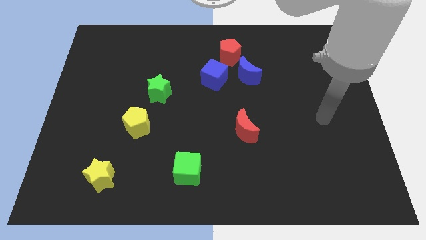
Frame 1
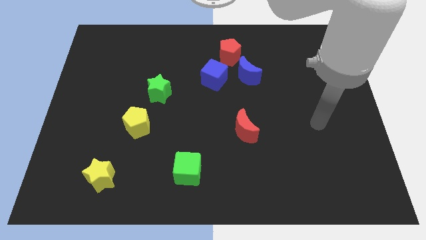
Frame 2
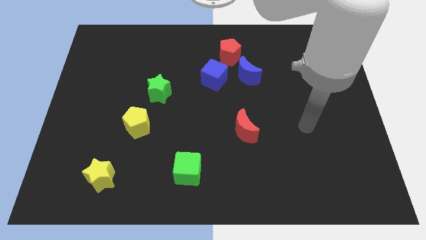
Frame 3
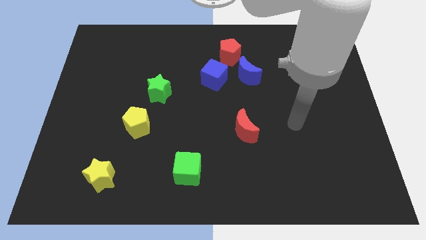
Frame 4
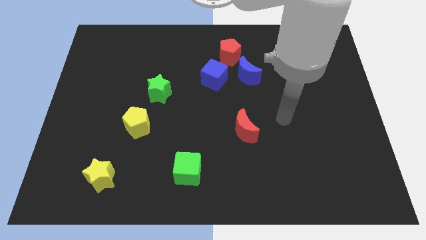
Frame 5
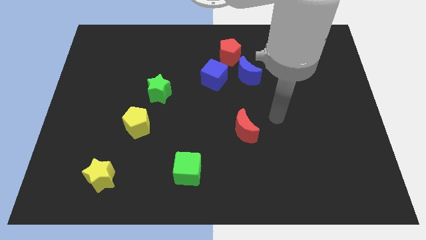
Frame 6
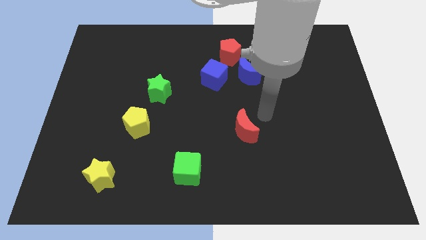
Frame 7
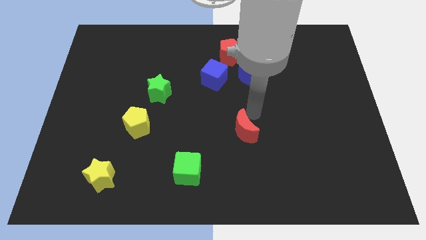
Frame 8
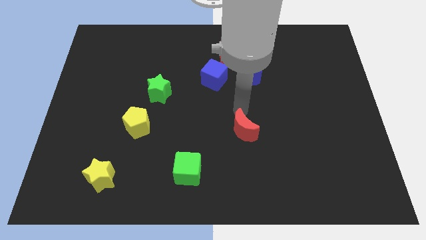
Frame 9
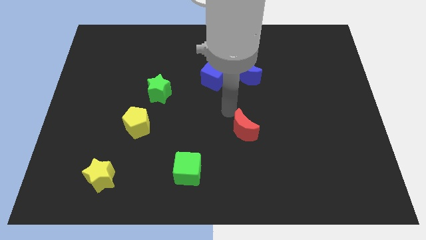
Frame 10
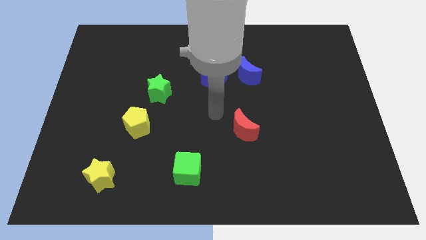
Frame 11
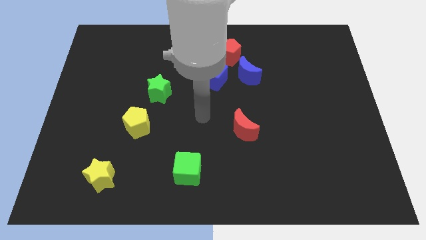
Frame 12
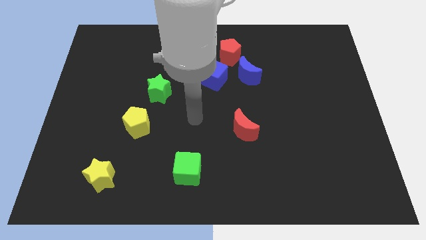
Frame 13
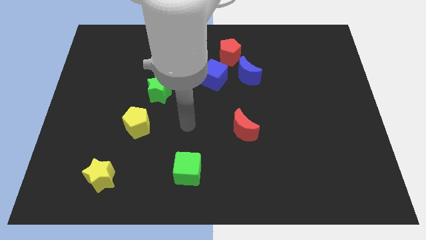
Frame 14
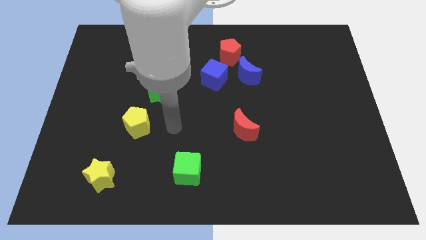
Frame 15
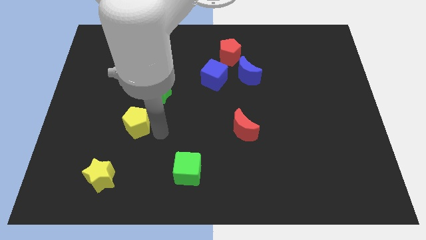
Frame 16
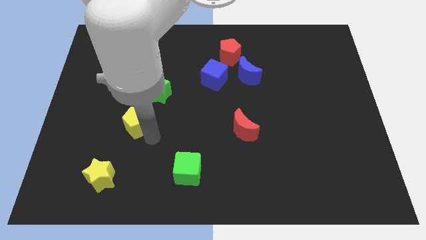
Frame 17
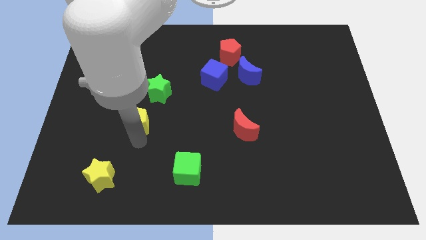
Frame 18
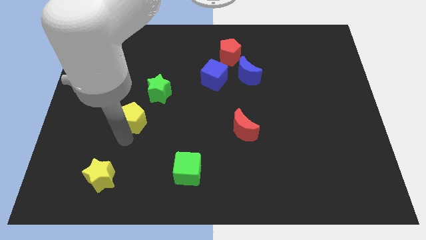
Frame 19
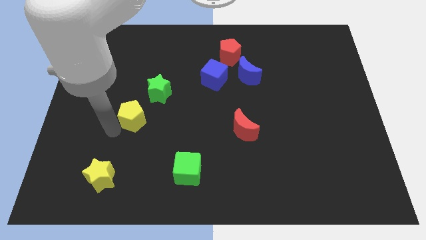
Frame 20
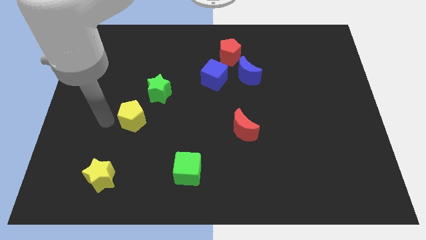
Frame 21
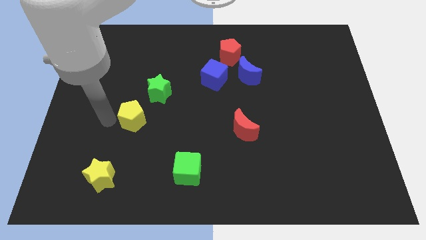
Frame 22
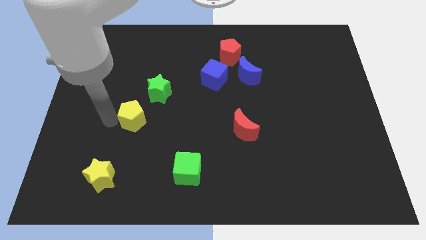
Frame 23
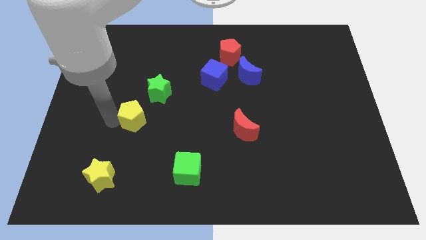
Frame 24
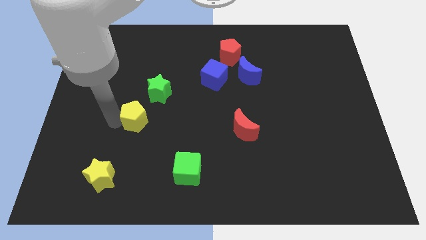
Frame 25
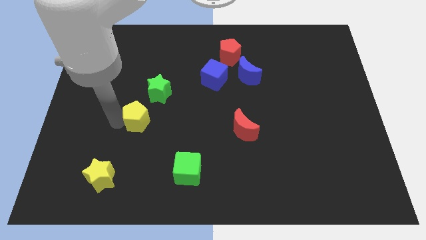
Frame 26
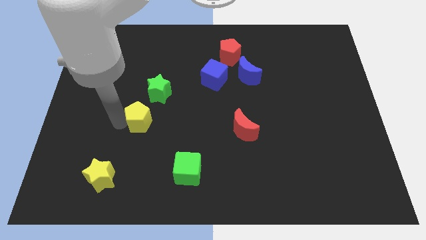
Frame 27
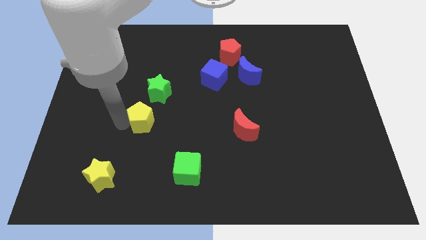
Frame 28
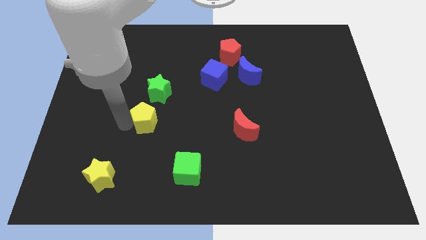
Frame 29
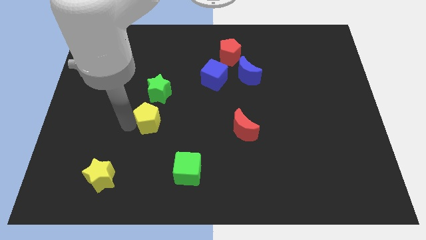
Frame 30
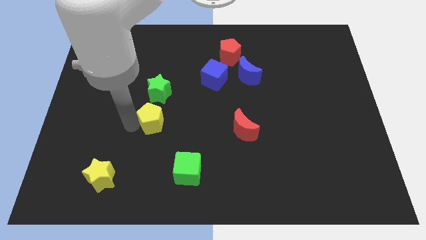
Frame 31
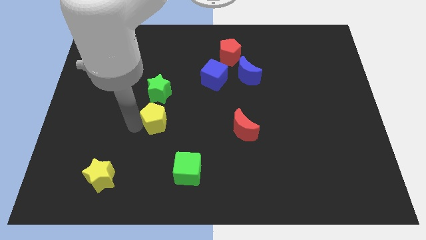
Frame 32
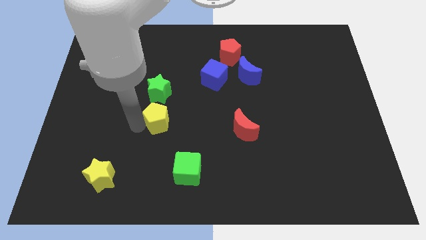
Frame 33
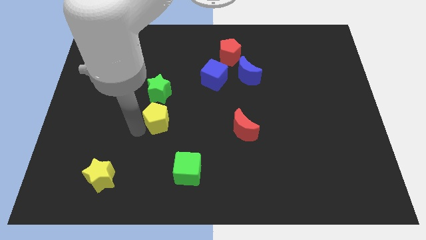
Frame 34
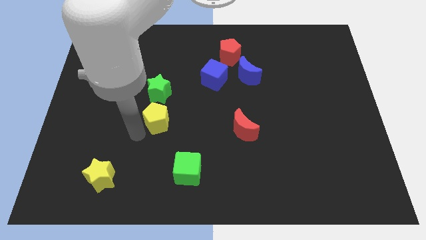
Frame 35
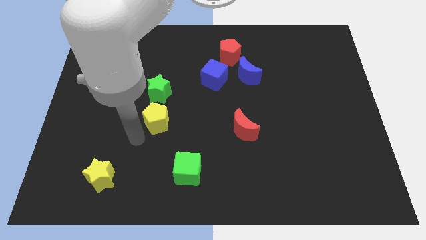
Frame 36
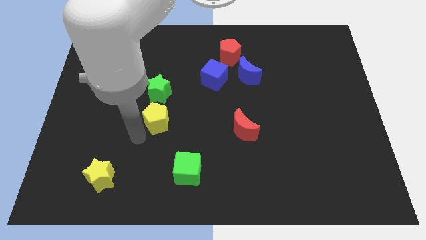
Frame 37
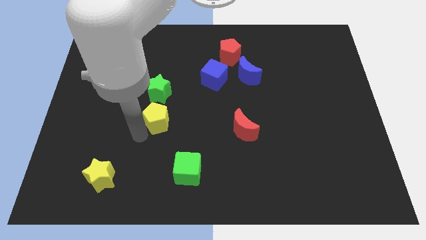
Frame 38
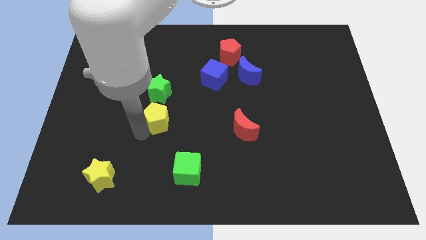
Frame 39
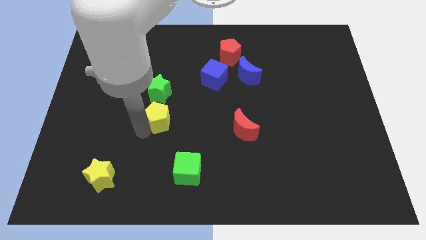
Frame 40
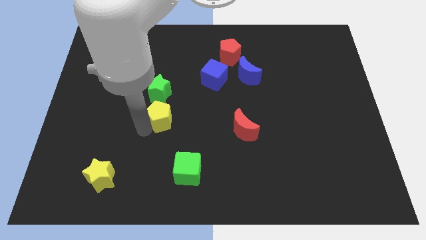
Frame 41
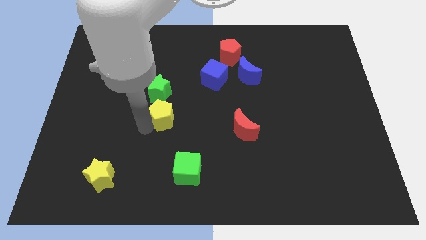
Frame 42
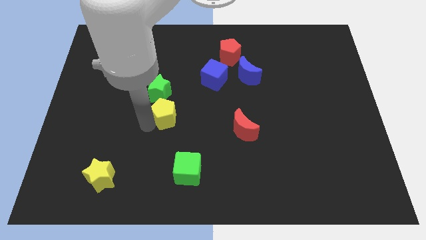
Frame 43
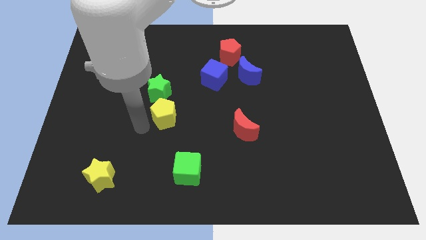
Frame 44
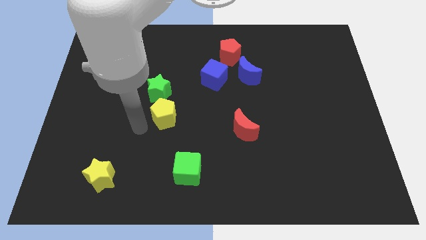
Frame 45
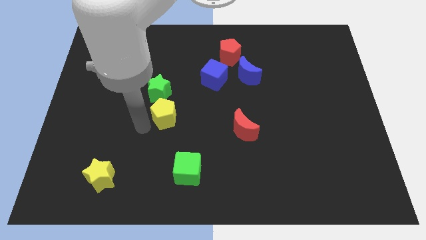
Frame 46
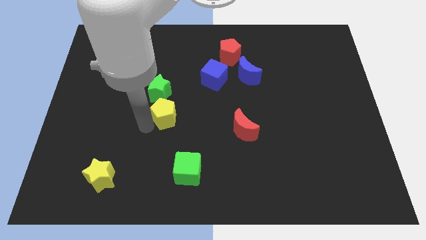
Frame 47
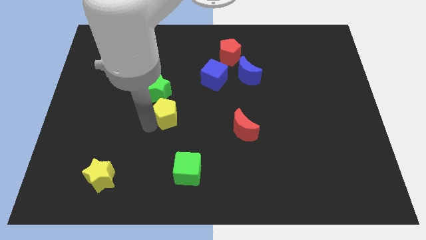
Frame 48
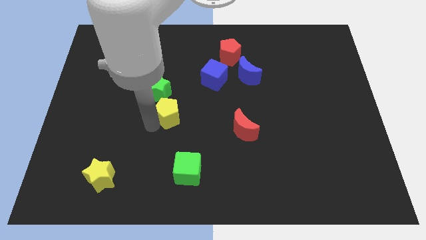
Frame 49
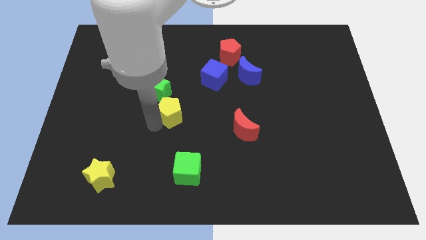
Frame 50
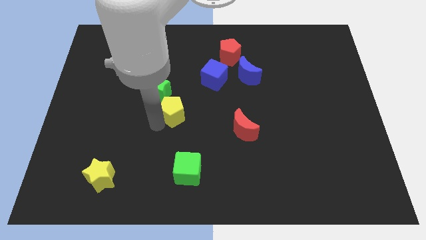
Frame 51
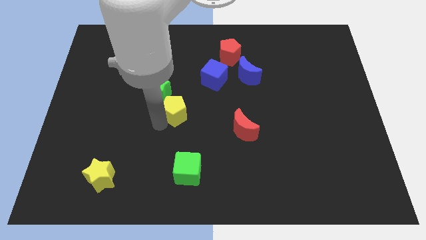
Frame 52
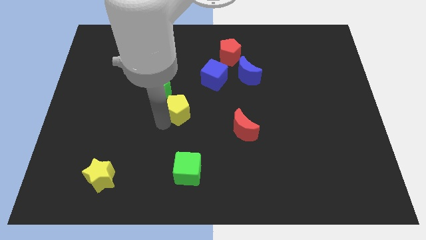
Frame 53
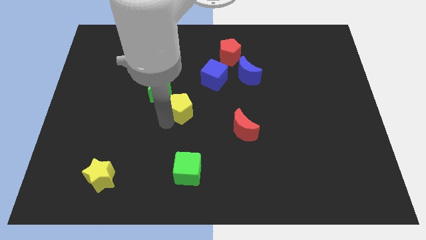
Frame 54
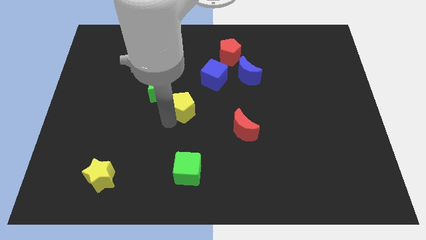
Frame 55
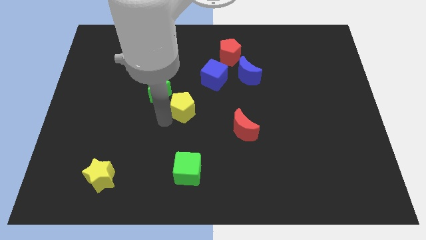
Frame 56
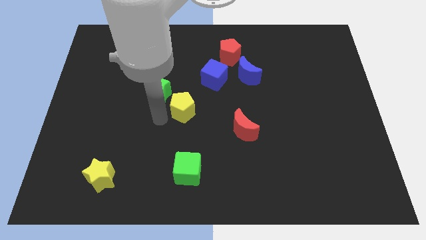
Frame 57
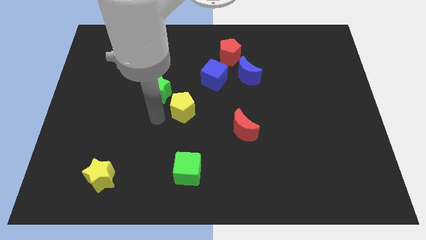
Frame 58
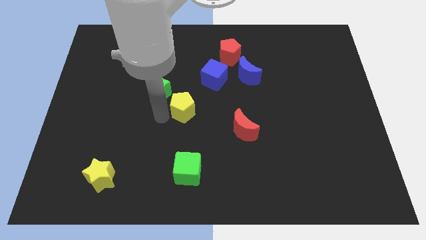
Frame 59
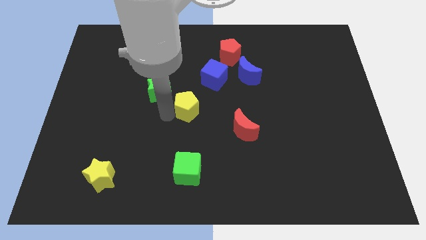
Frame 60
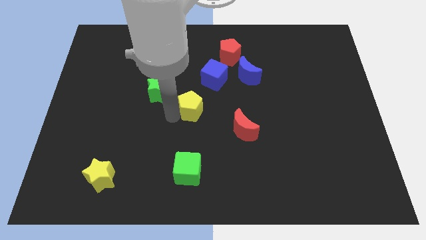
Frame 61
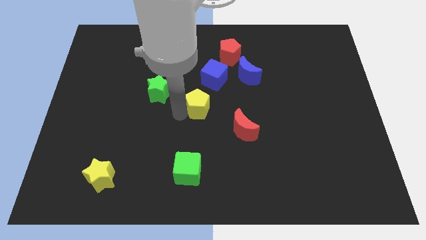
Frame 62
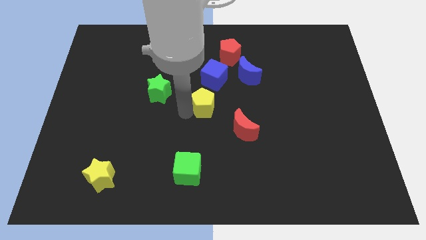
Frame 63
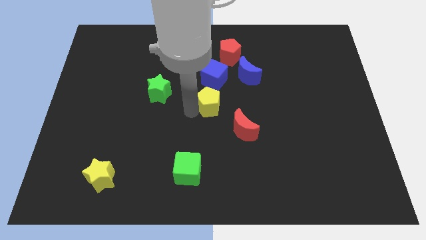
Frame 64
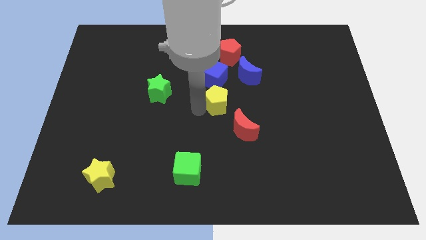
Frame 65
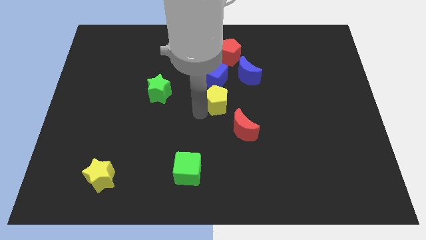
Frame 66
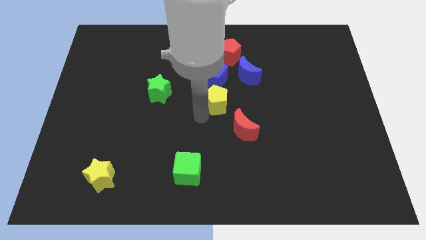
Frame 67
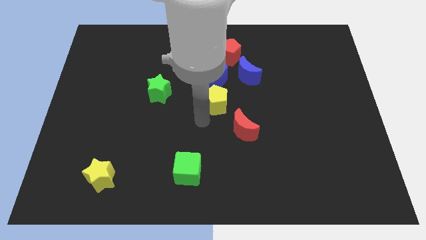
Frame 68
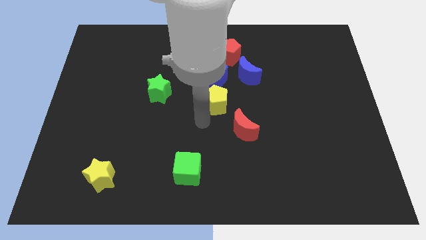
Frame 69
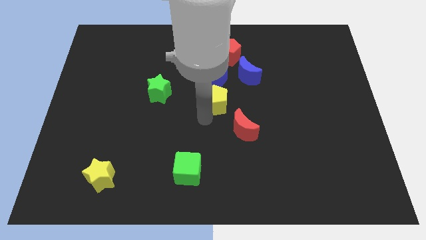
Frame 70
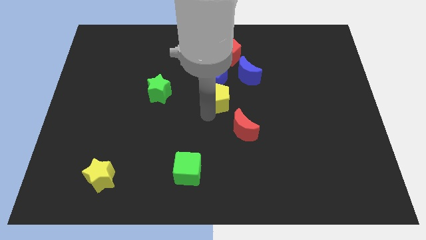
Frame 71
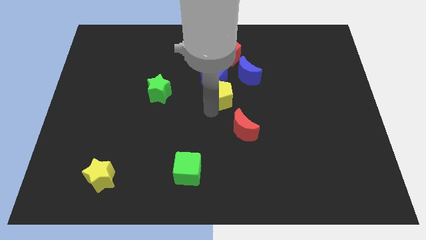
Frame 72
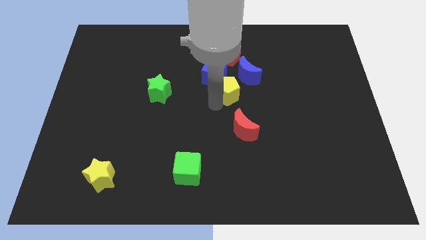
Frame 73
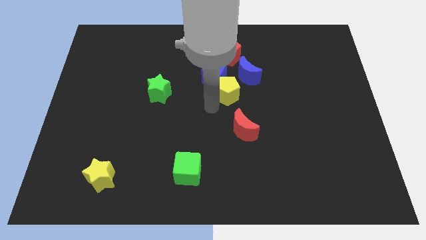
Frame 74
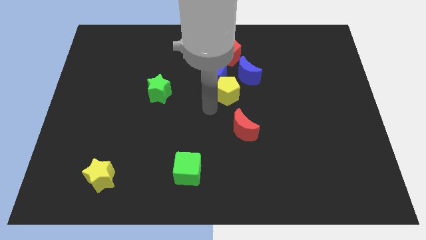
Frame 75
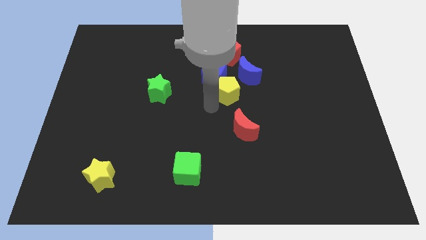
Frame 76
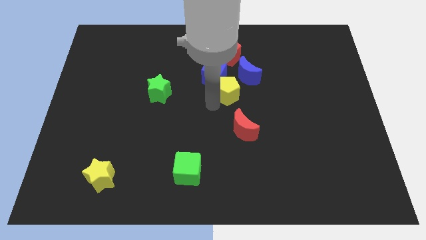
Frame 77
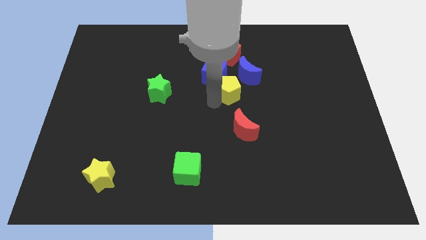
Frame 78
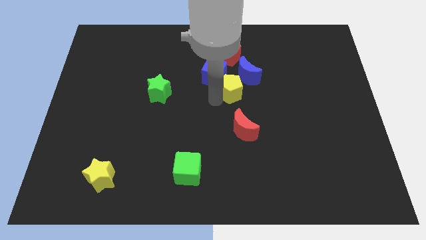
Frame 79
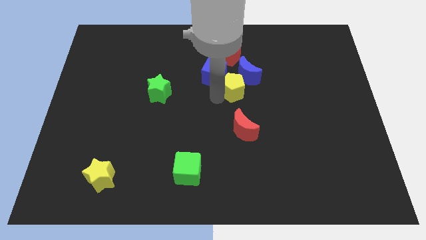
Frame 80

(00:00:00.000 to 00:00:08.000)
put the yellow pentagon to the blue moon
